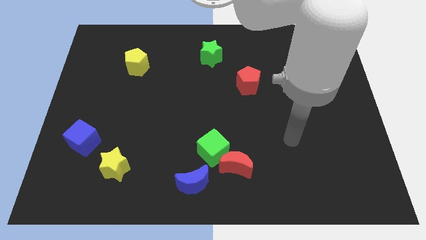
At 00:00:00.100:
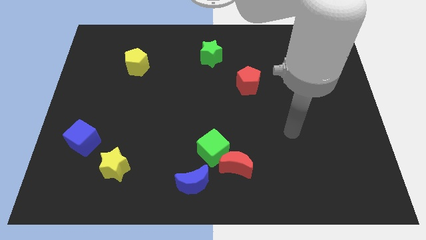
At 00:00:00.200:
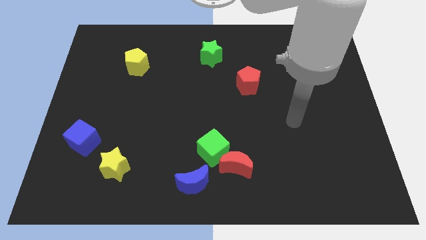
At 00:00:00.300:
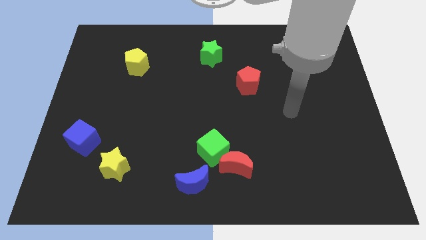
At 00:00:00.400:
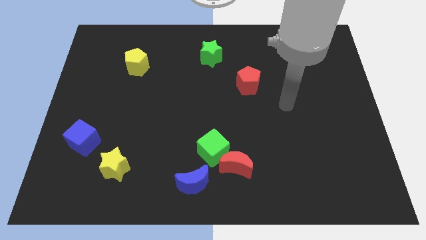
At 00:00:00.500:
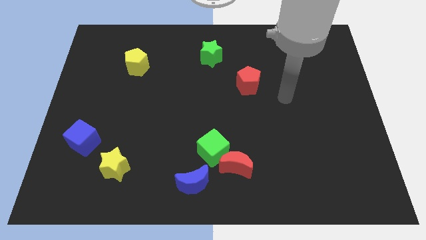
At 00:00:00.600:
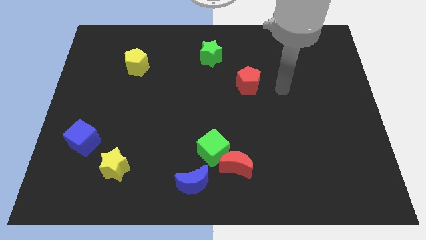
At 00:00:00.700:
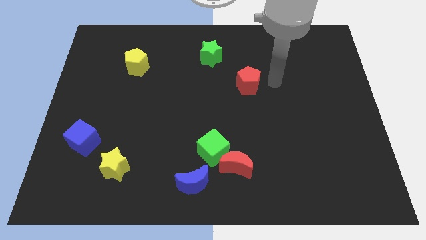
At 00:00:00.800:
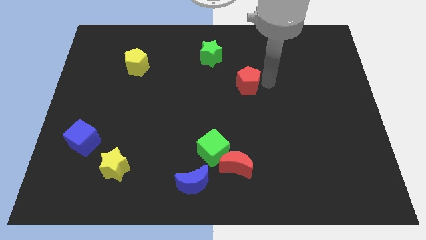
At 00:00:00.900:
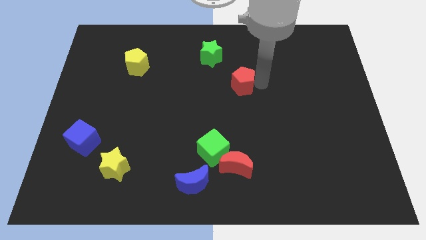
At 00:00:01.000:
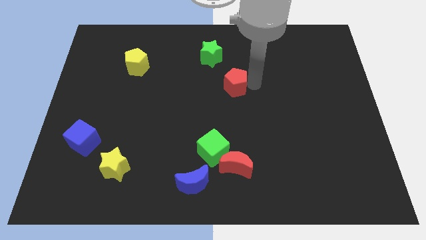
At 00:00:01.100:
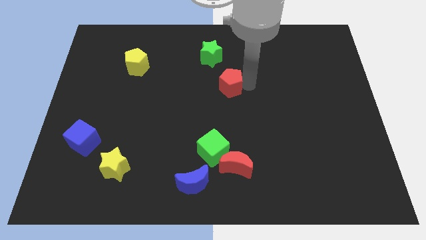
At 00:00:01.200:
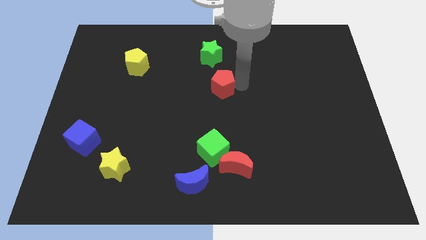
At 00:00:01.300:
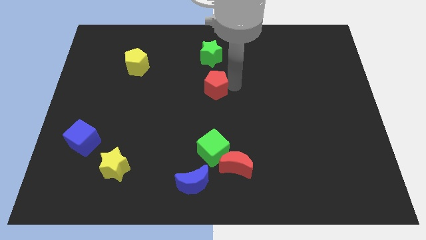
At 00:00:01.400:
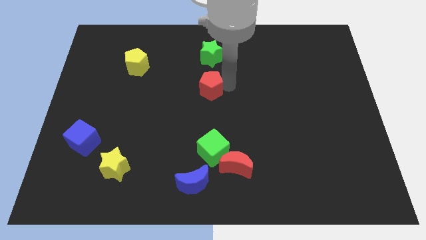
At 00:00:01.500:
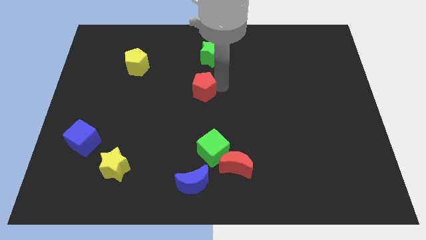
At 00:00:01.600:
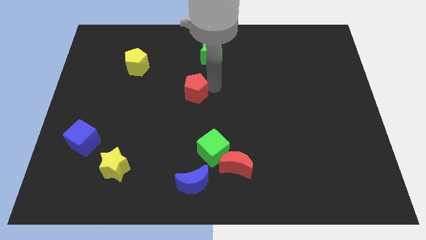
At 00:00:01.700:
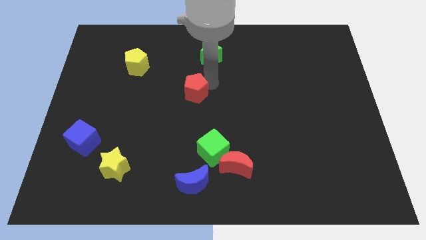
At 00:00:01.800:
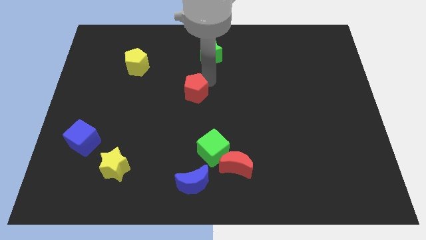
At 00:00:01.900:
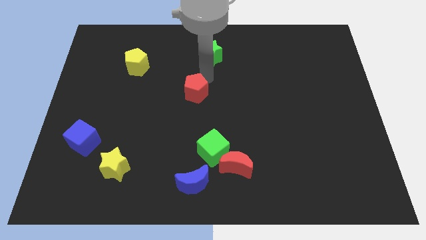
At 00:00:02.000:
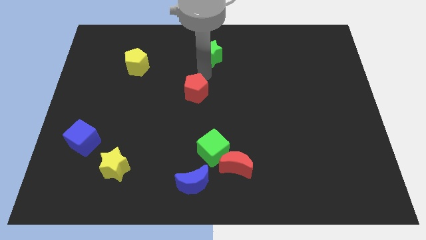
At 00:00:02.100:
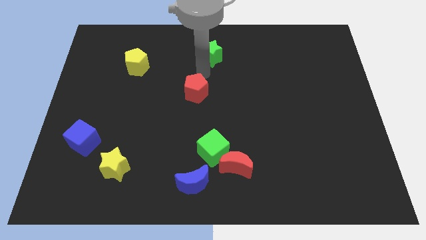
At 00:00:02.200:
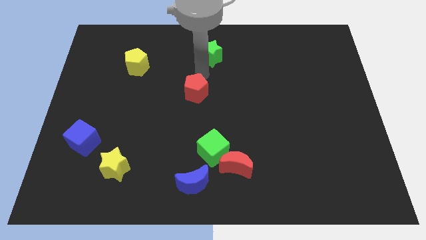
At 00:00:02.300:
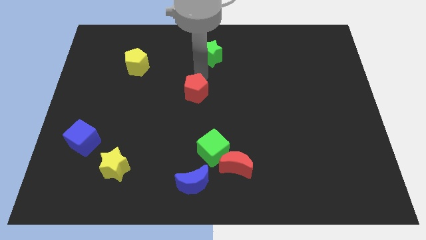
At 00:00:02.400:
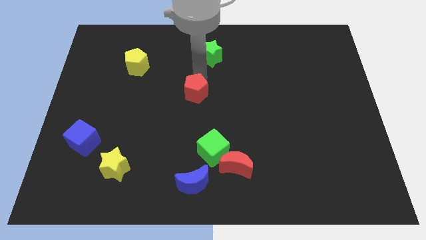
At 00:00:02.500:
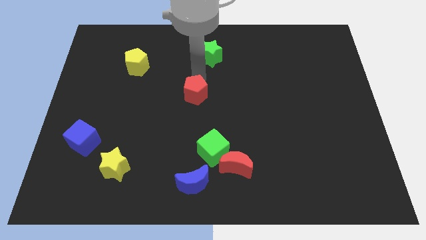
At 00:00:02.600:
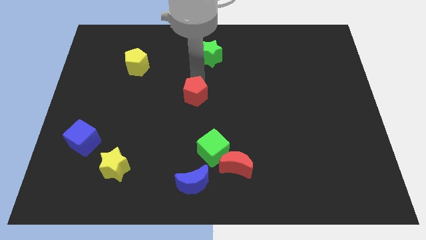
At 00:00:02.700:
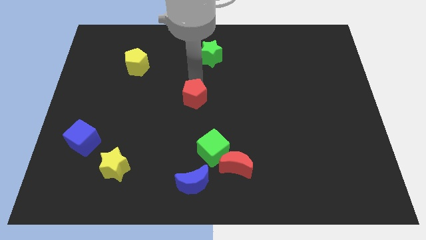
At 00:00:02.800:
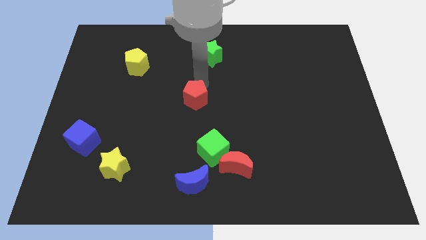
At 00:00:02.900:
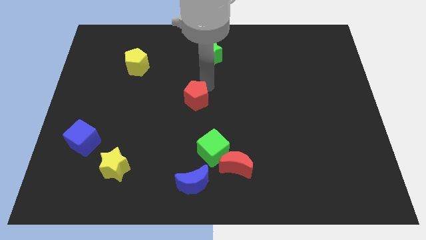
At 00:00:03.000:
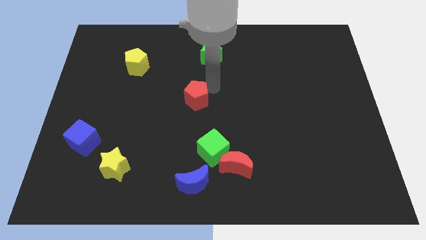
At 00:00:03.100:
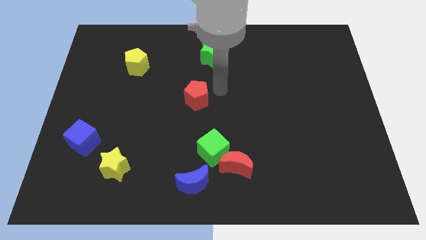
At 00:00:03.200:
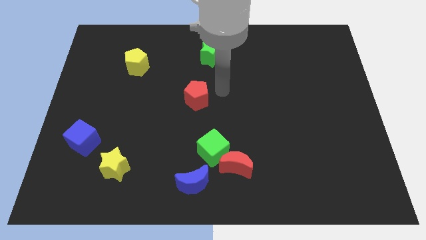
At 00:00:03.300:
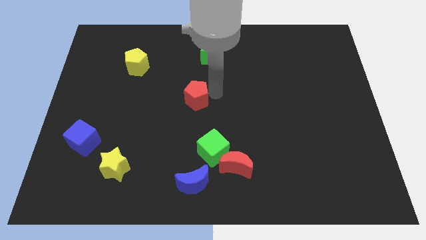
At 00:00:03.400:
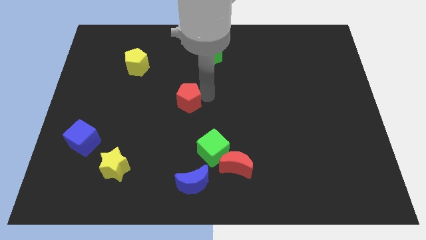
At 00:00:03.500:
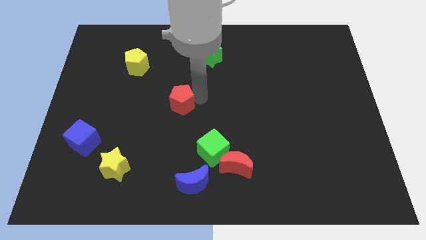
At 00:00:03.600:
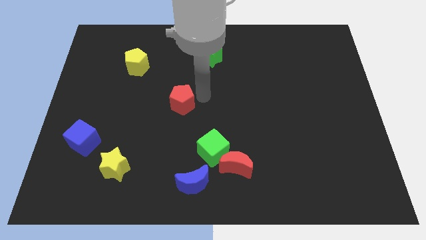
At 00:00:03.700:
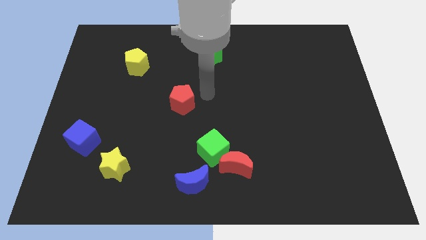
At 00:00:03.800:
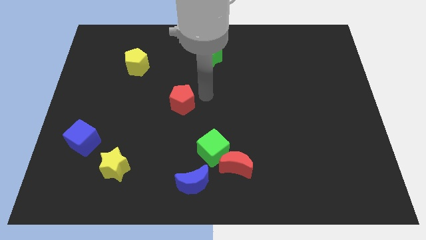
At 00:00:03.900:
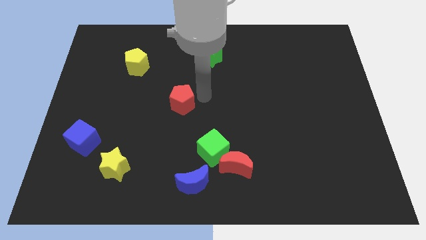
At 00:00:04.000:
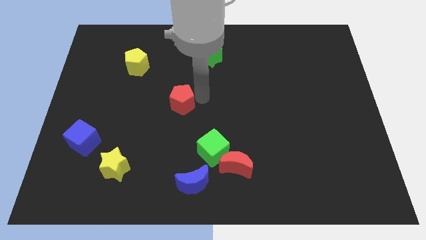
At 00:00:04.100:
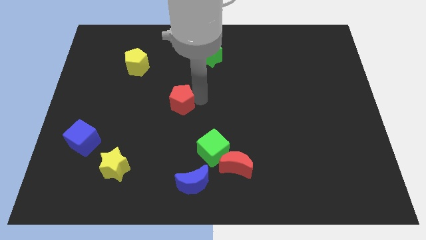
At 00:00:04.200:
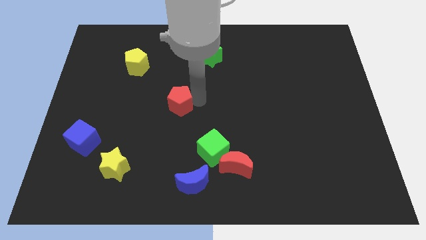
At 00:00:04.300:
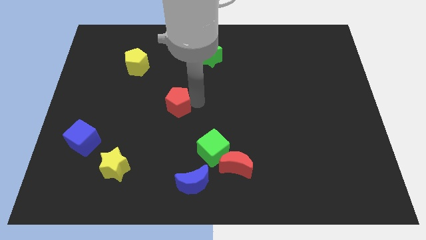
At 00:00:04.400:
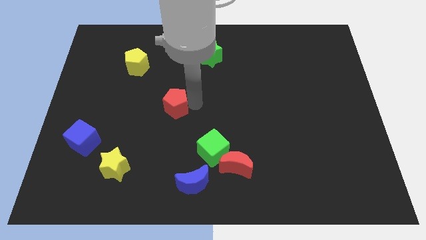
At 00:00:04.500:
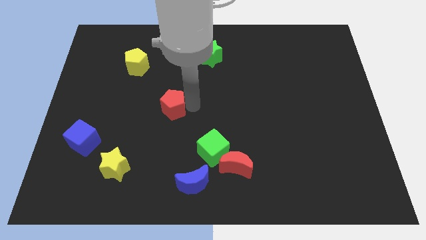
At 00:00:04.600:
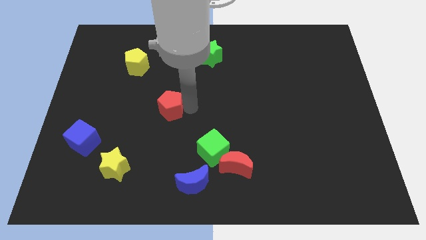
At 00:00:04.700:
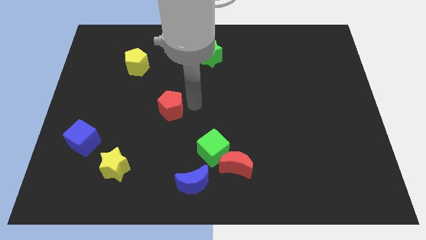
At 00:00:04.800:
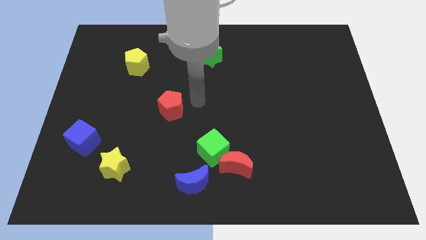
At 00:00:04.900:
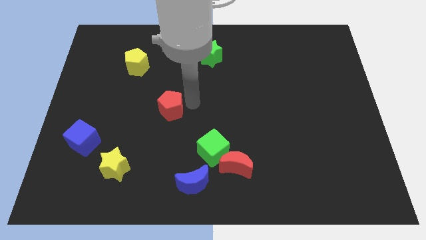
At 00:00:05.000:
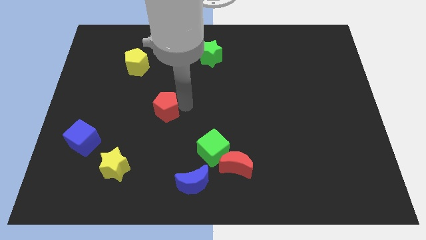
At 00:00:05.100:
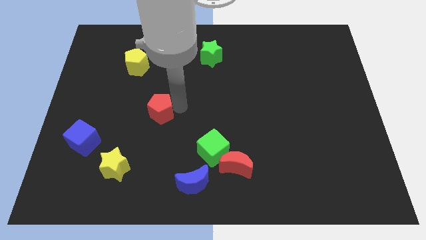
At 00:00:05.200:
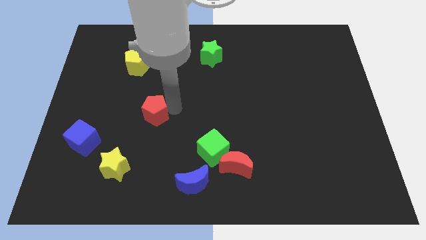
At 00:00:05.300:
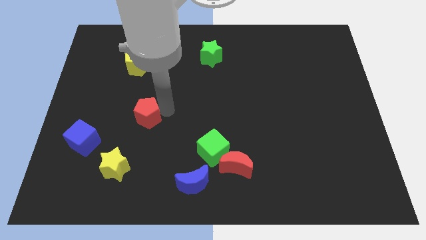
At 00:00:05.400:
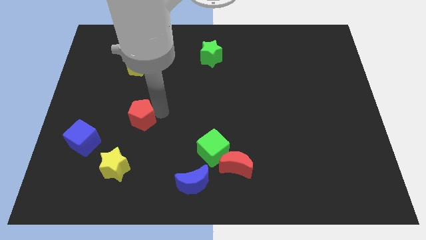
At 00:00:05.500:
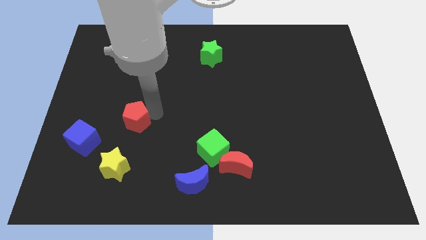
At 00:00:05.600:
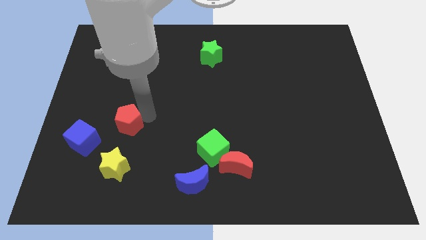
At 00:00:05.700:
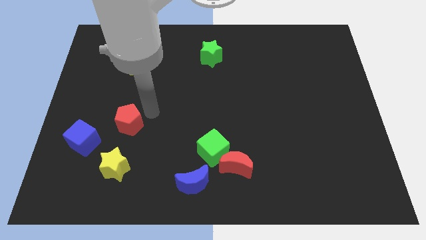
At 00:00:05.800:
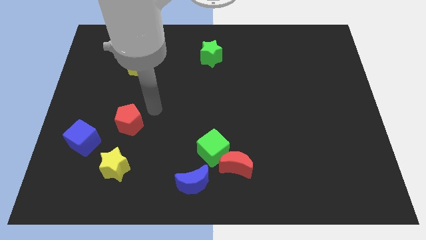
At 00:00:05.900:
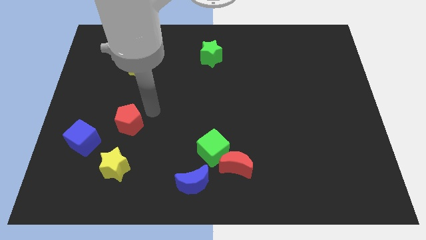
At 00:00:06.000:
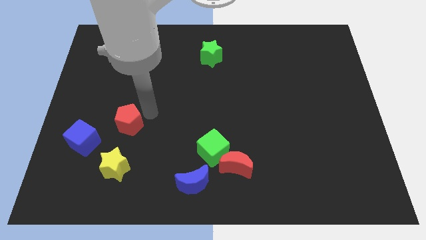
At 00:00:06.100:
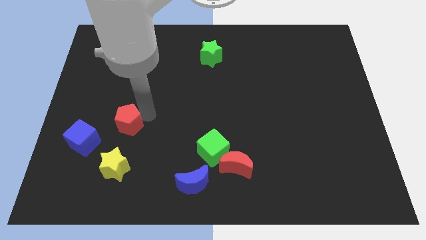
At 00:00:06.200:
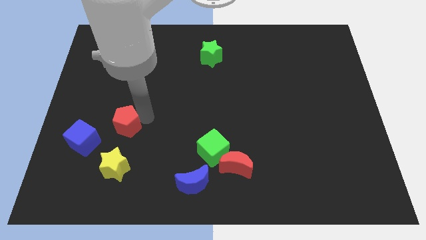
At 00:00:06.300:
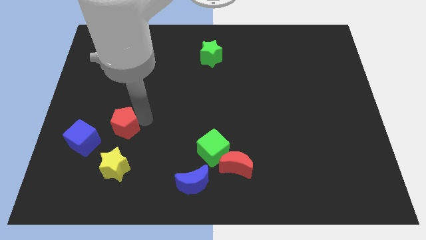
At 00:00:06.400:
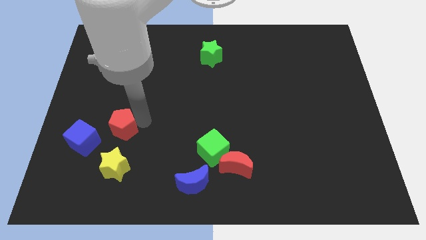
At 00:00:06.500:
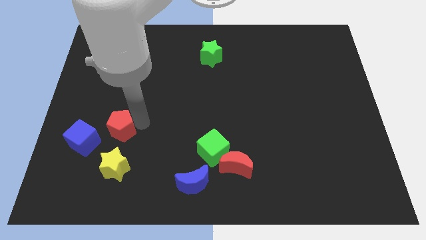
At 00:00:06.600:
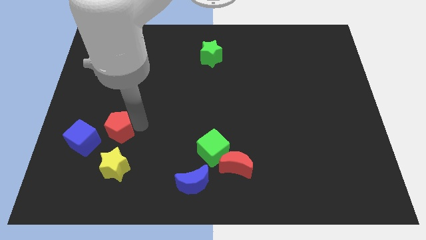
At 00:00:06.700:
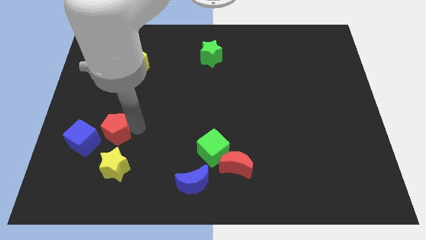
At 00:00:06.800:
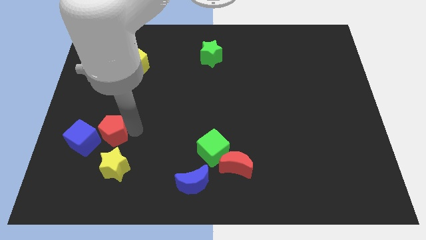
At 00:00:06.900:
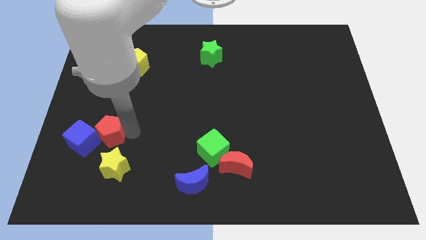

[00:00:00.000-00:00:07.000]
slide the red pentagon towards the blue cube
